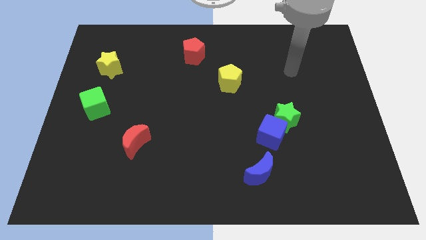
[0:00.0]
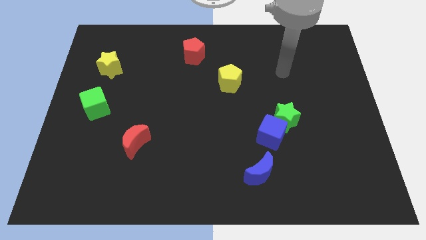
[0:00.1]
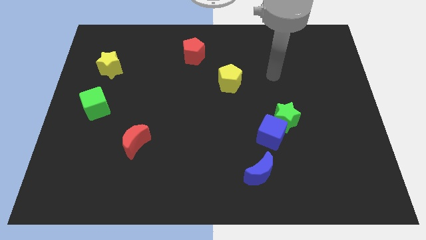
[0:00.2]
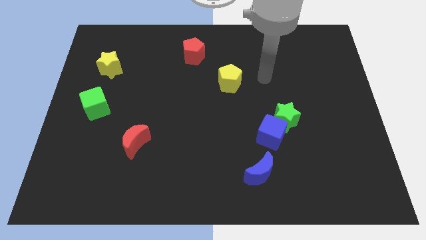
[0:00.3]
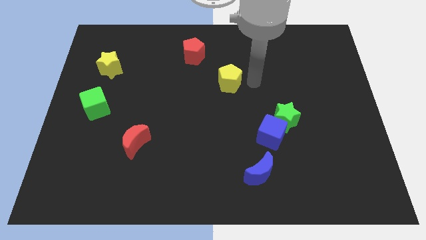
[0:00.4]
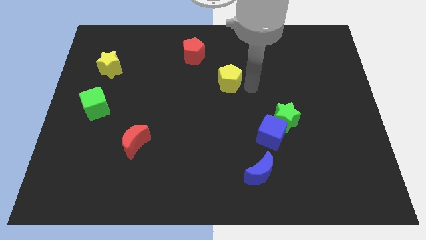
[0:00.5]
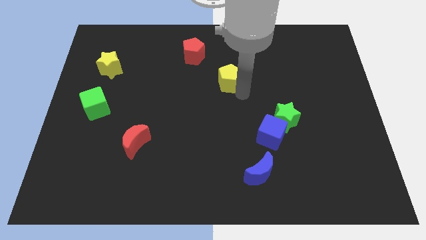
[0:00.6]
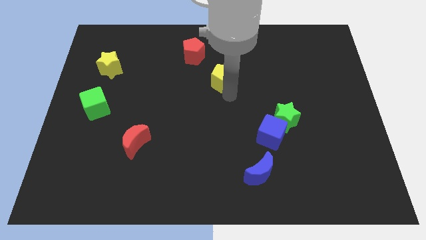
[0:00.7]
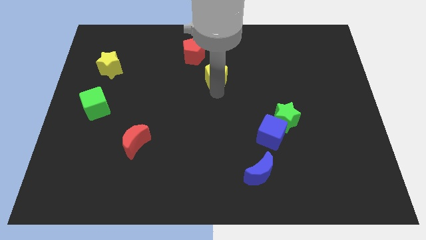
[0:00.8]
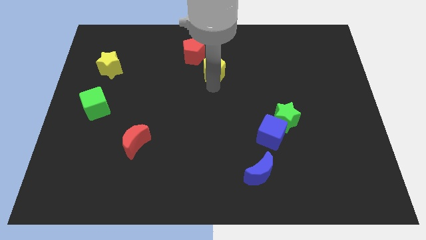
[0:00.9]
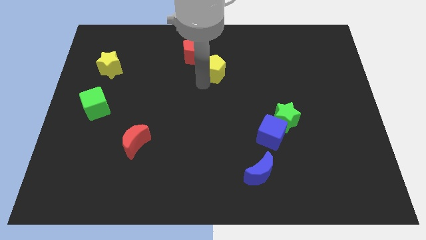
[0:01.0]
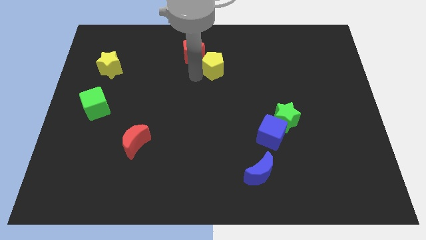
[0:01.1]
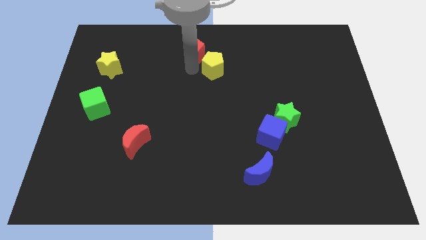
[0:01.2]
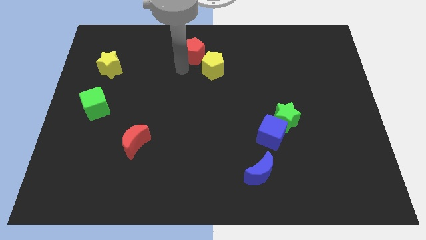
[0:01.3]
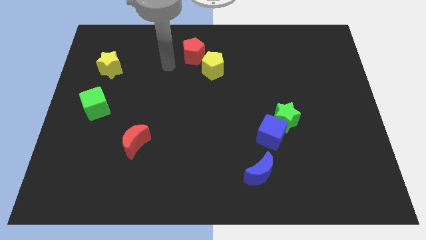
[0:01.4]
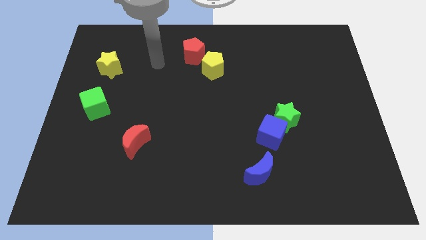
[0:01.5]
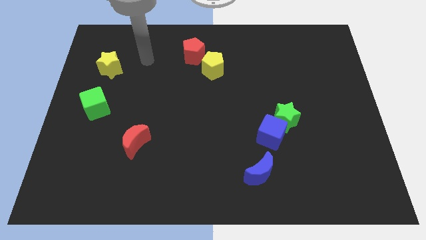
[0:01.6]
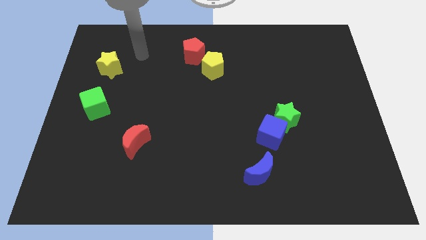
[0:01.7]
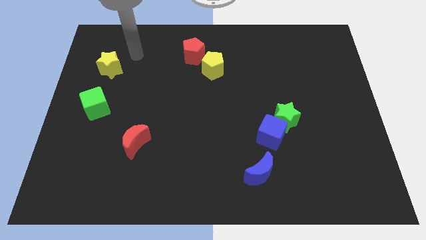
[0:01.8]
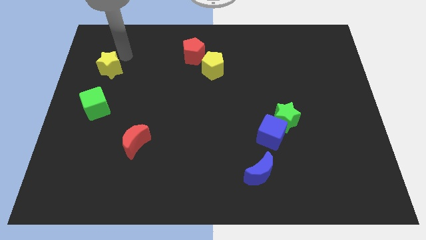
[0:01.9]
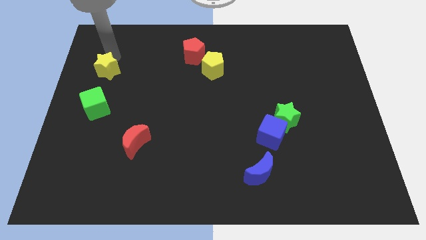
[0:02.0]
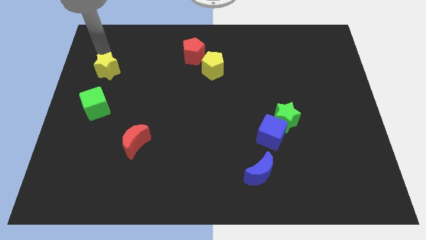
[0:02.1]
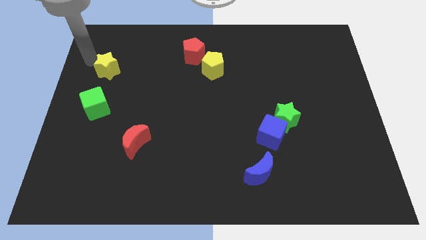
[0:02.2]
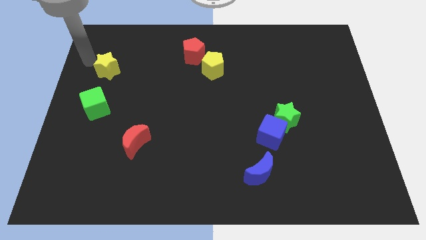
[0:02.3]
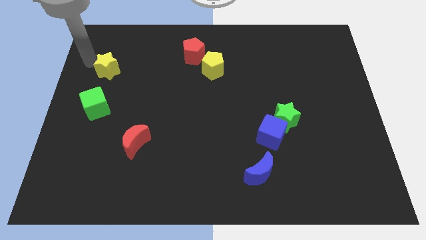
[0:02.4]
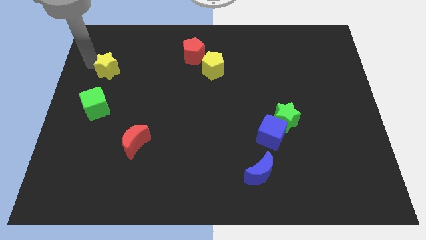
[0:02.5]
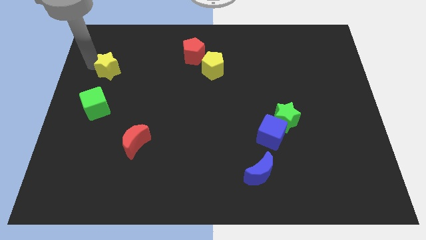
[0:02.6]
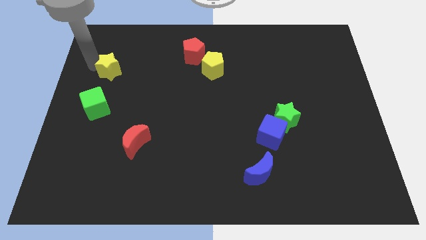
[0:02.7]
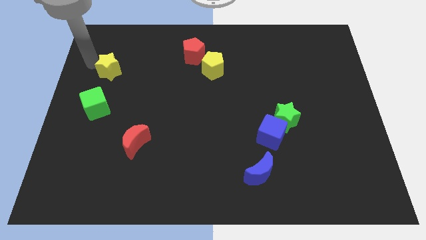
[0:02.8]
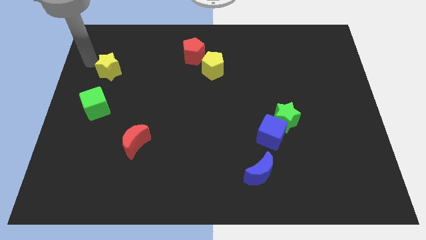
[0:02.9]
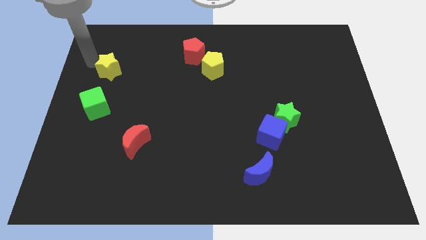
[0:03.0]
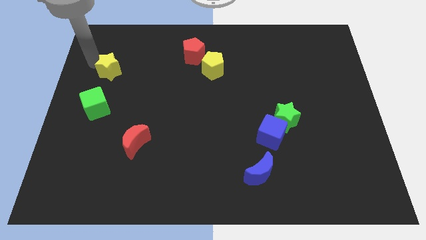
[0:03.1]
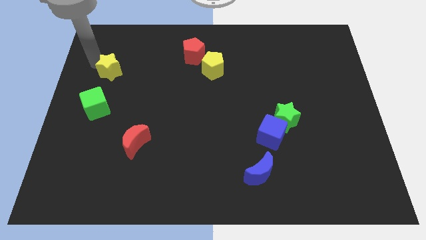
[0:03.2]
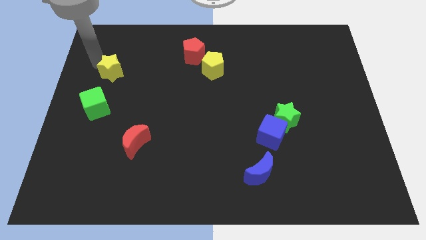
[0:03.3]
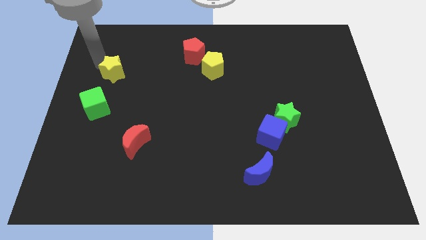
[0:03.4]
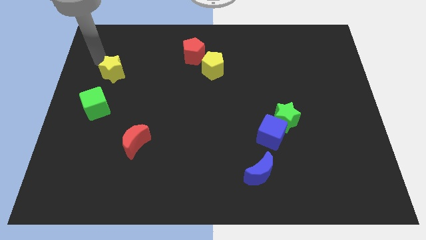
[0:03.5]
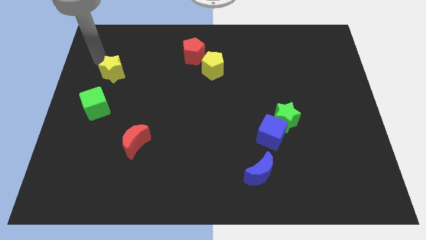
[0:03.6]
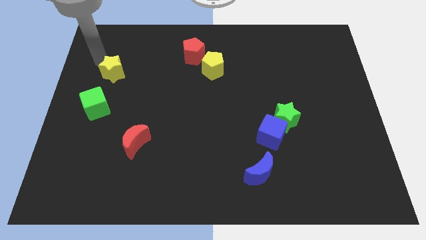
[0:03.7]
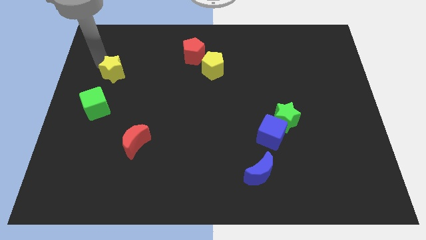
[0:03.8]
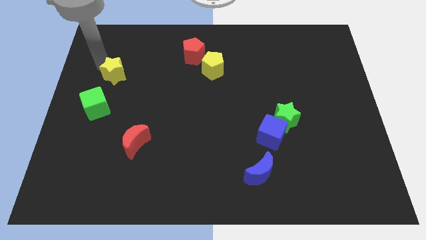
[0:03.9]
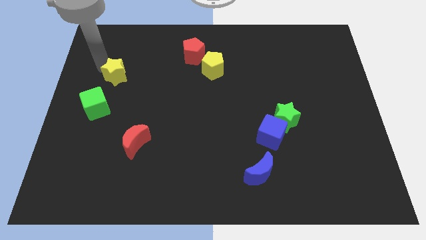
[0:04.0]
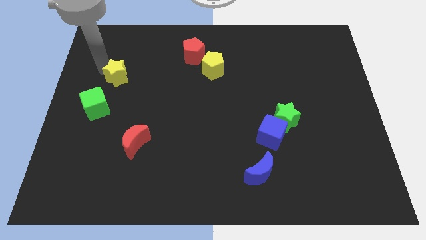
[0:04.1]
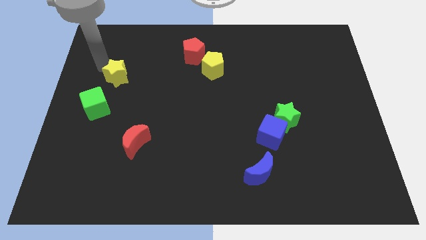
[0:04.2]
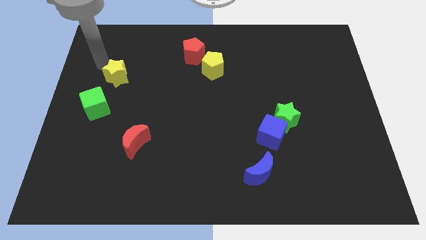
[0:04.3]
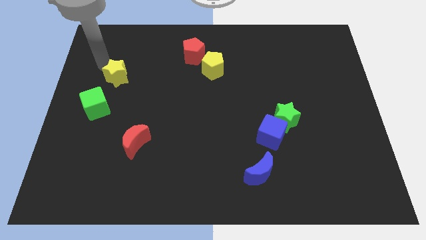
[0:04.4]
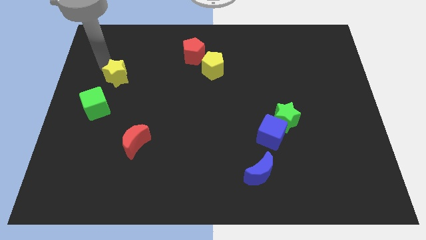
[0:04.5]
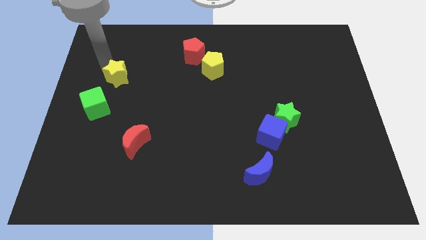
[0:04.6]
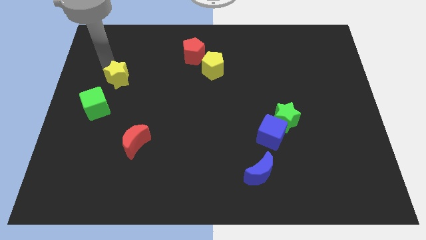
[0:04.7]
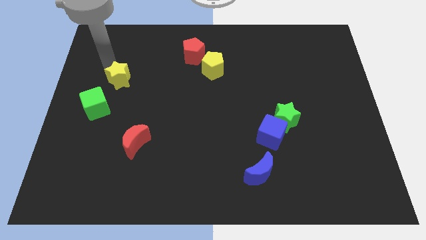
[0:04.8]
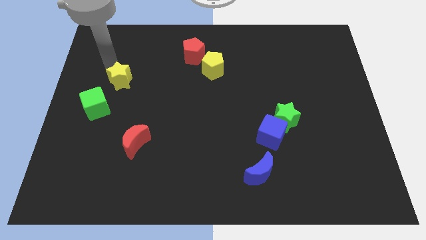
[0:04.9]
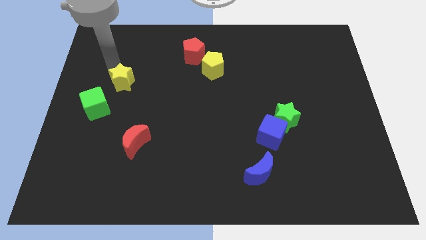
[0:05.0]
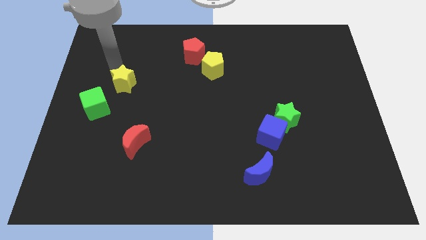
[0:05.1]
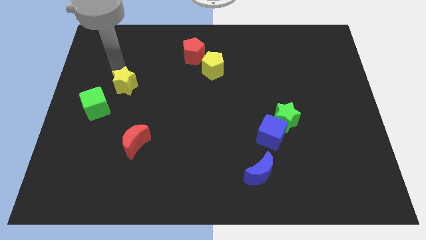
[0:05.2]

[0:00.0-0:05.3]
move the yellow star down and right a little

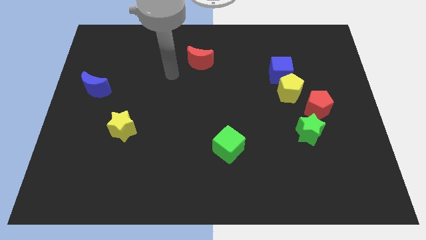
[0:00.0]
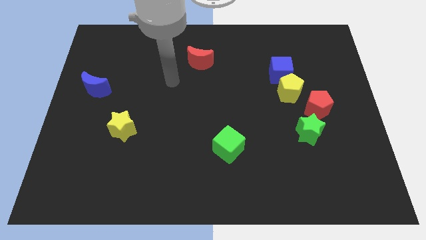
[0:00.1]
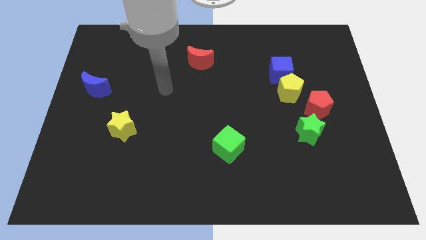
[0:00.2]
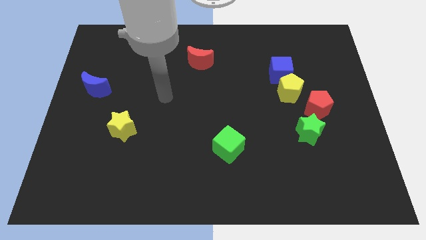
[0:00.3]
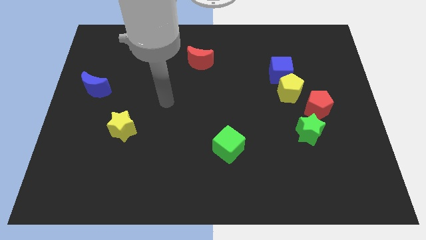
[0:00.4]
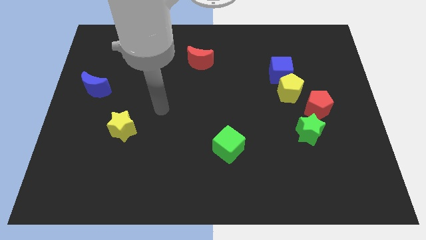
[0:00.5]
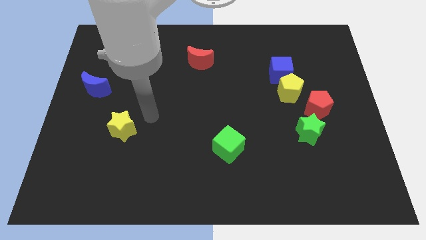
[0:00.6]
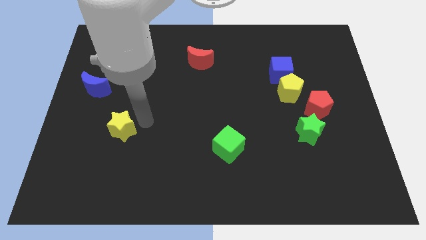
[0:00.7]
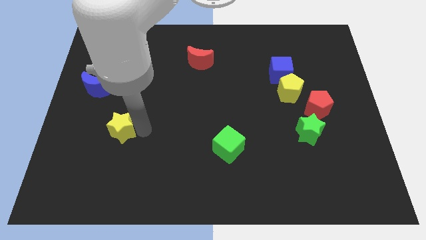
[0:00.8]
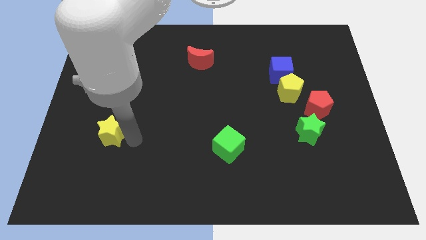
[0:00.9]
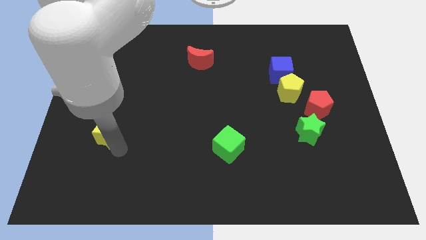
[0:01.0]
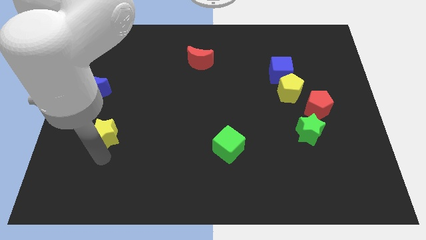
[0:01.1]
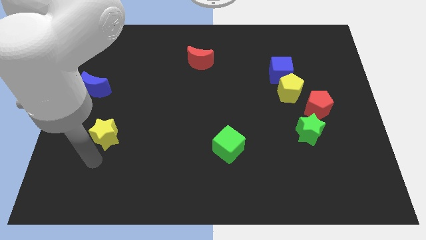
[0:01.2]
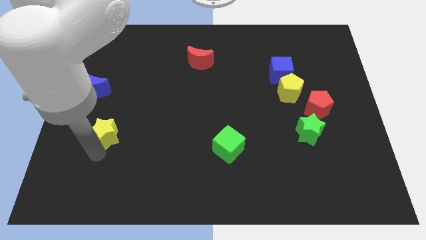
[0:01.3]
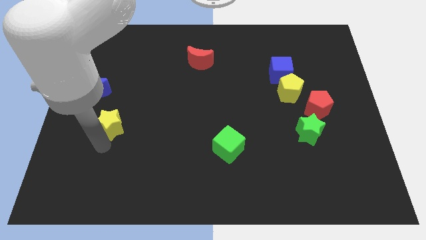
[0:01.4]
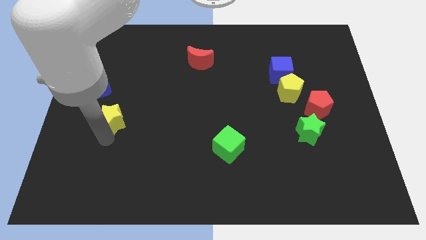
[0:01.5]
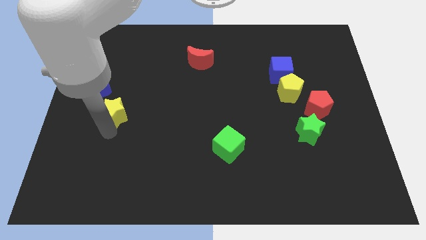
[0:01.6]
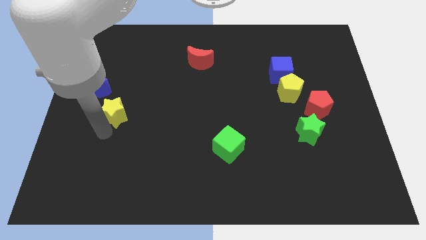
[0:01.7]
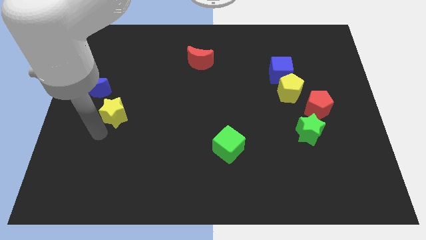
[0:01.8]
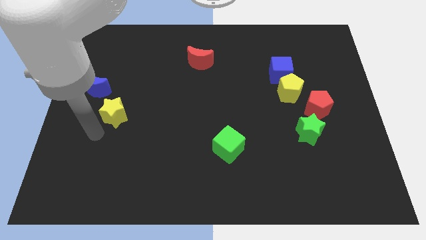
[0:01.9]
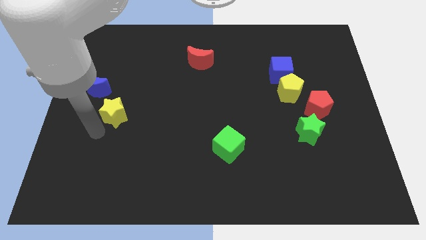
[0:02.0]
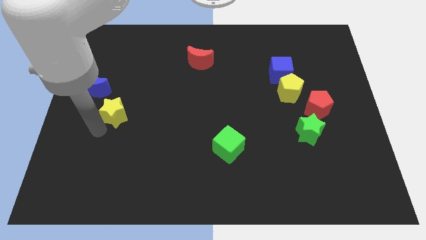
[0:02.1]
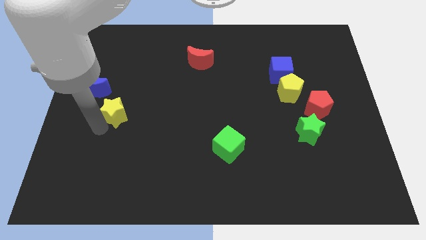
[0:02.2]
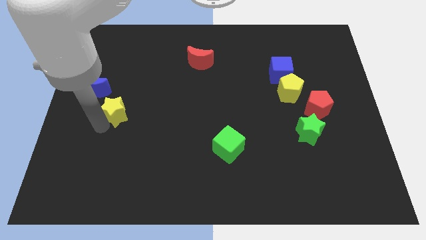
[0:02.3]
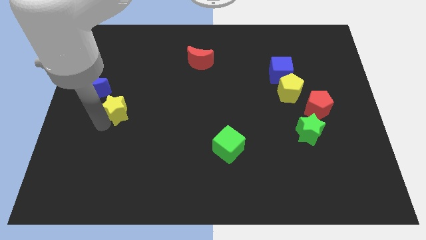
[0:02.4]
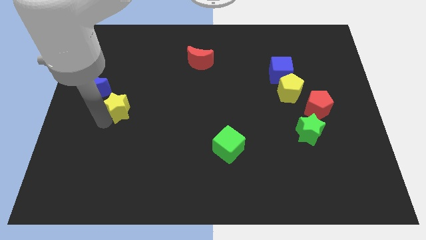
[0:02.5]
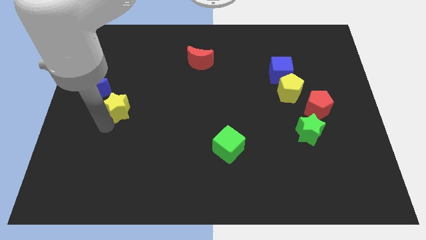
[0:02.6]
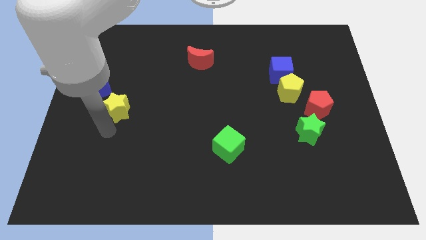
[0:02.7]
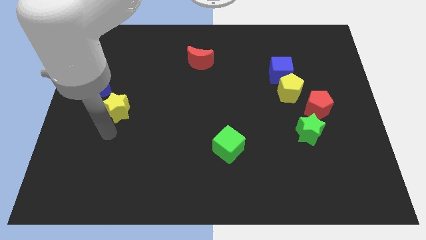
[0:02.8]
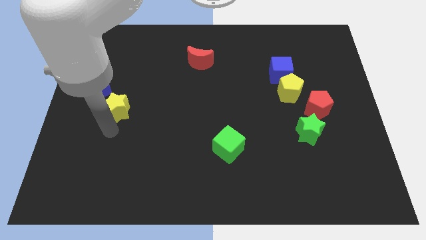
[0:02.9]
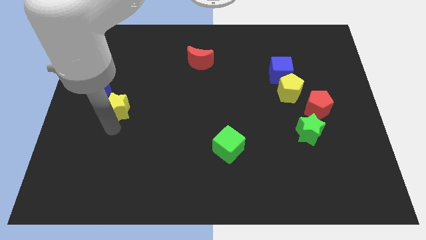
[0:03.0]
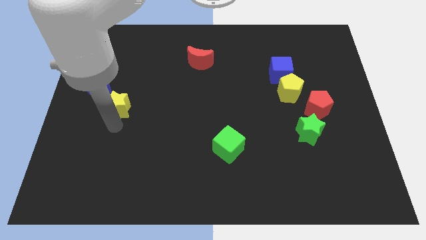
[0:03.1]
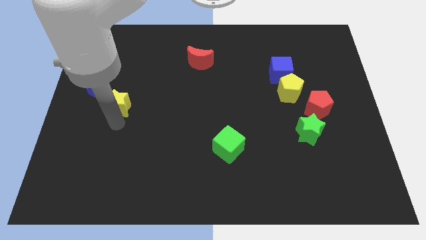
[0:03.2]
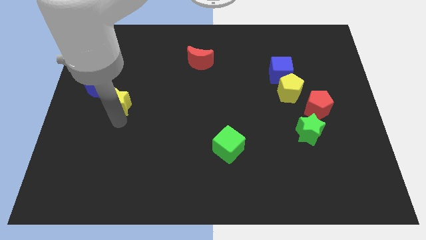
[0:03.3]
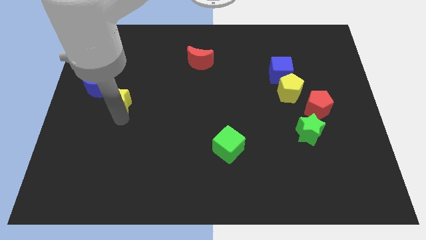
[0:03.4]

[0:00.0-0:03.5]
slide the yellow star a little up
